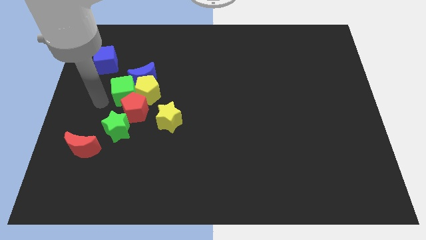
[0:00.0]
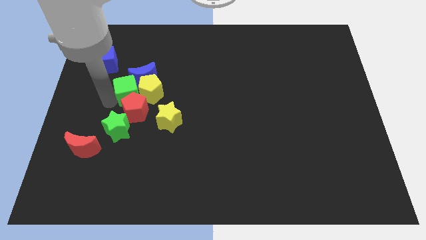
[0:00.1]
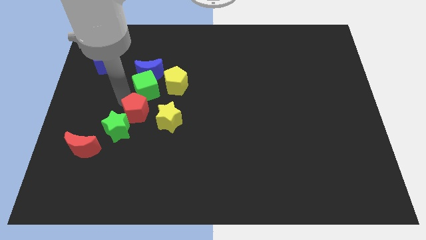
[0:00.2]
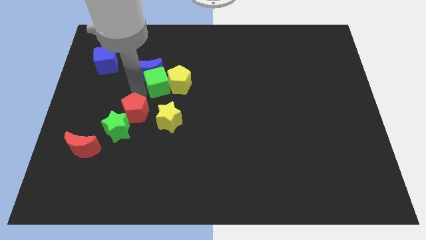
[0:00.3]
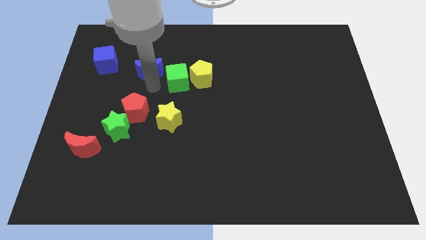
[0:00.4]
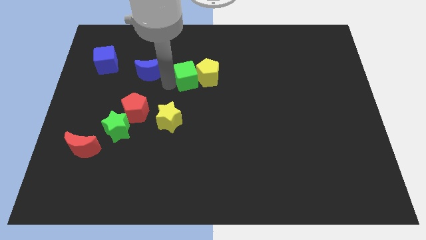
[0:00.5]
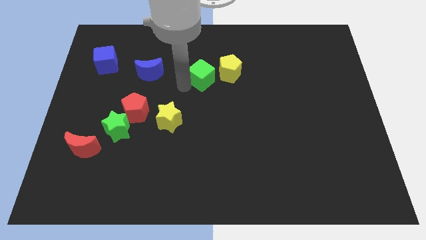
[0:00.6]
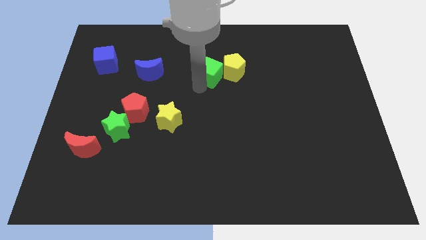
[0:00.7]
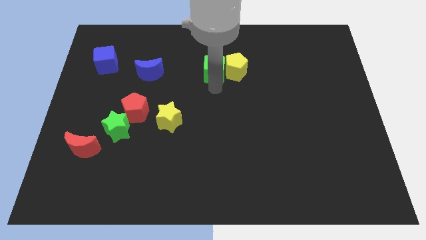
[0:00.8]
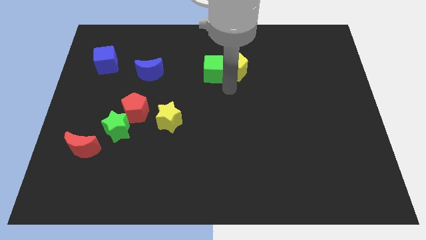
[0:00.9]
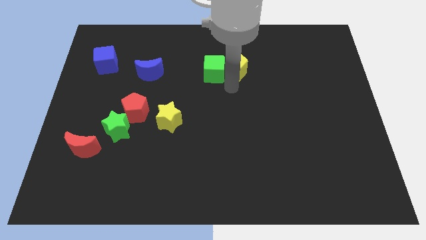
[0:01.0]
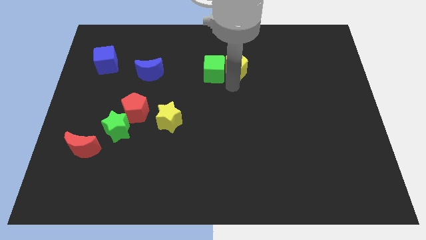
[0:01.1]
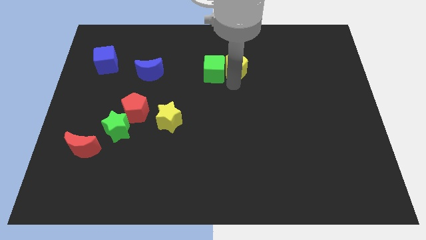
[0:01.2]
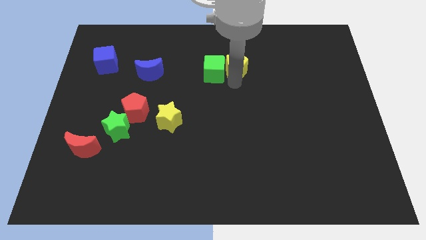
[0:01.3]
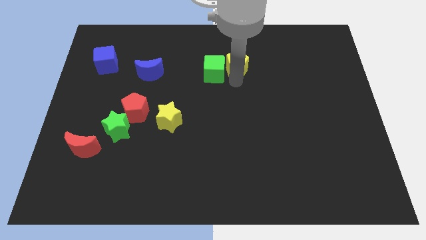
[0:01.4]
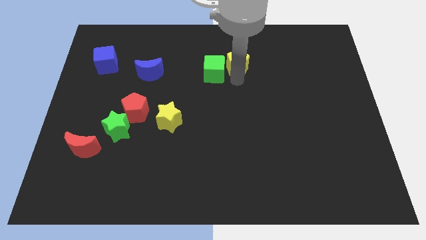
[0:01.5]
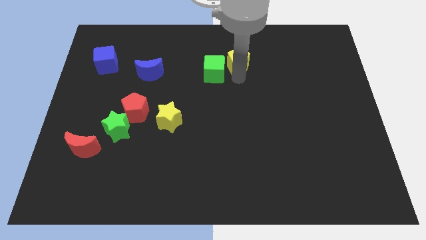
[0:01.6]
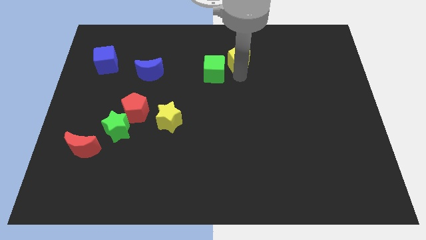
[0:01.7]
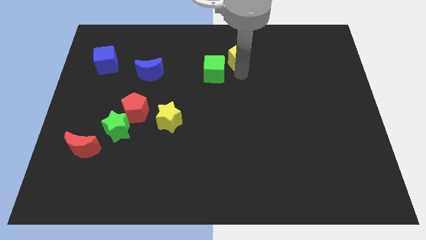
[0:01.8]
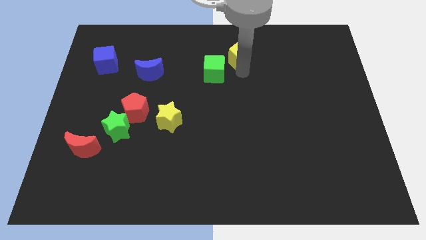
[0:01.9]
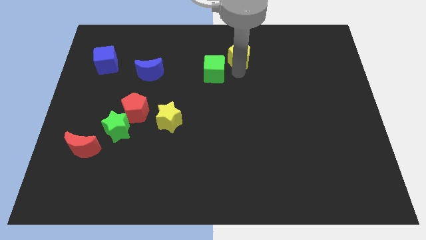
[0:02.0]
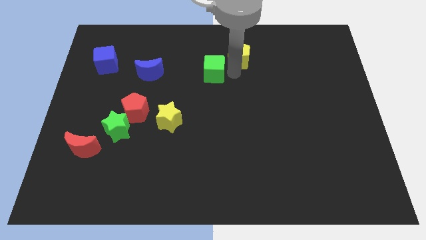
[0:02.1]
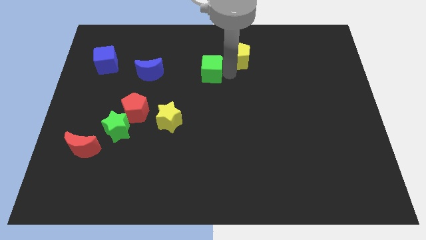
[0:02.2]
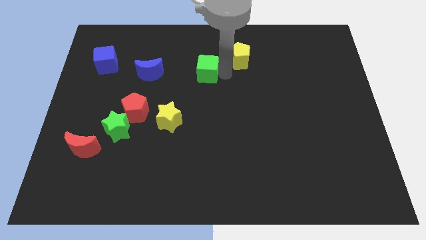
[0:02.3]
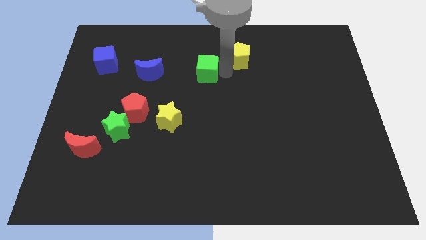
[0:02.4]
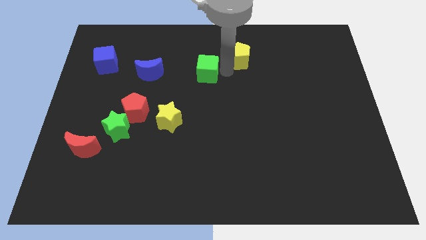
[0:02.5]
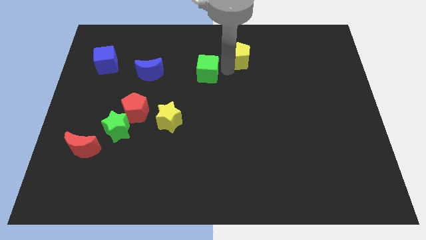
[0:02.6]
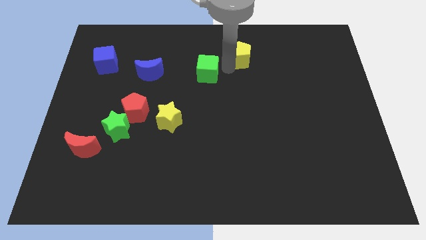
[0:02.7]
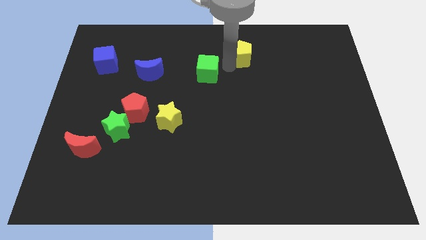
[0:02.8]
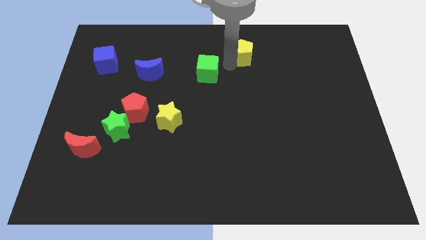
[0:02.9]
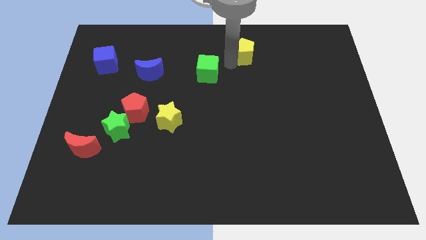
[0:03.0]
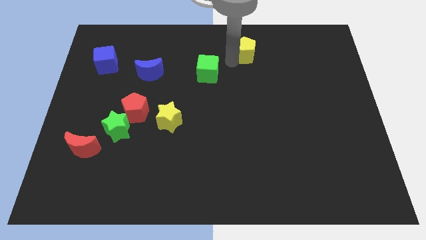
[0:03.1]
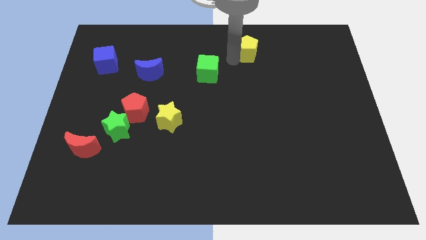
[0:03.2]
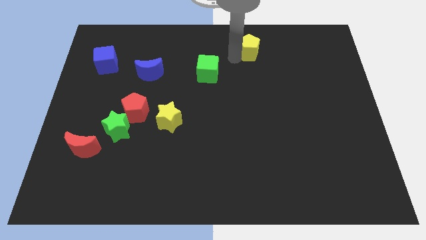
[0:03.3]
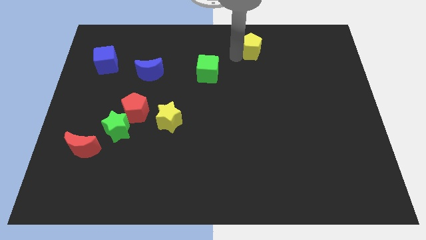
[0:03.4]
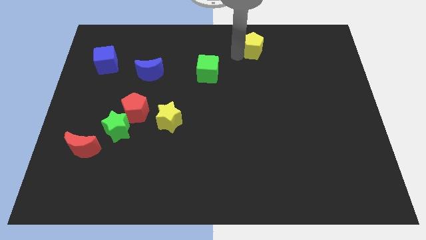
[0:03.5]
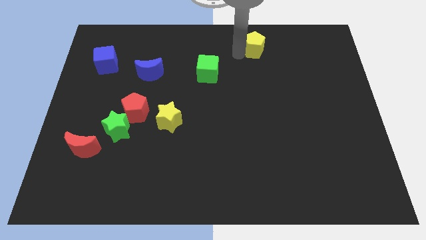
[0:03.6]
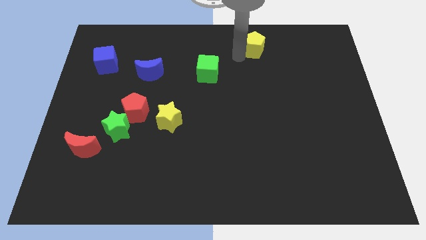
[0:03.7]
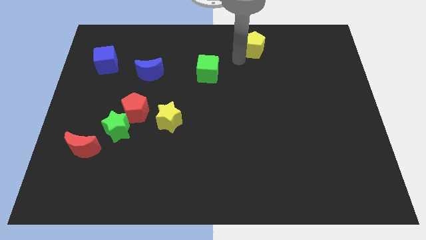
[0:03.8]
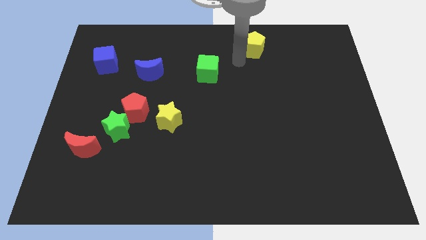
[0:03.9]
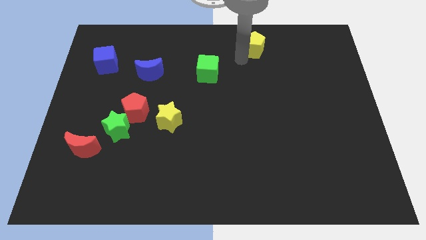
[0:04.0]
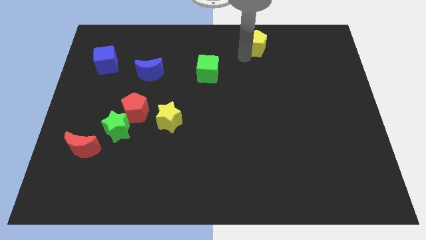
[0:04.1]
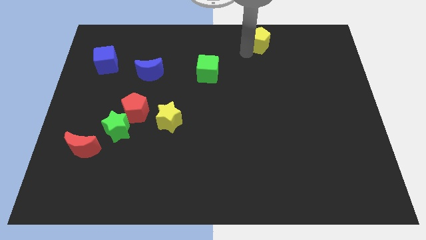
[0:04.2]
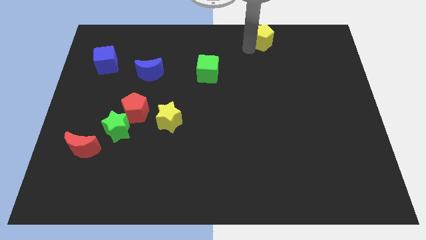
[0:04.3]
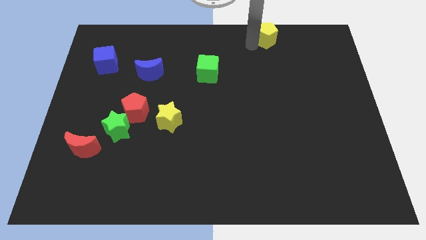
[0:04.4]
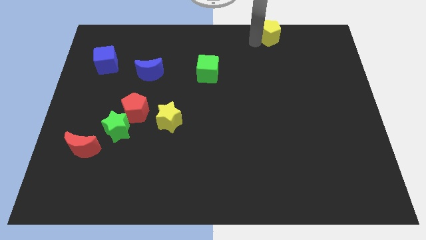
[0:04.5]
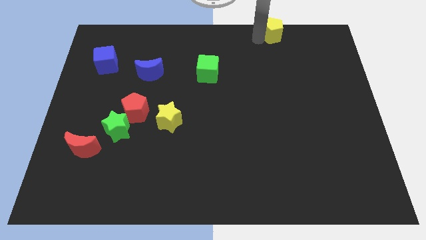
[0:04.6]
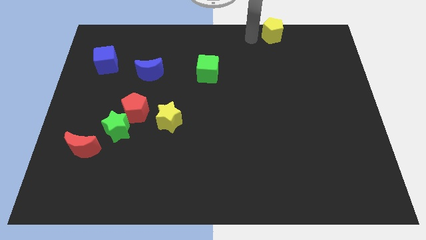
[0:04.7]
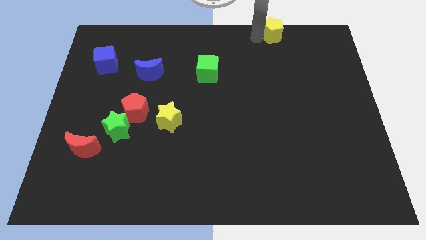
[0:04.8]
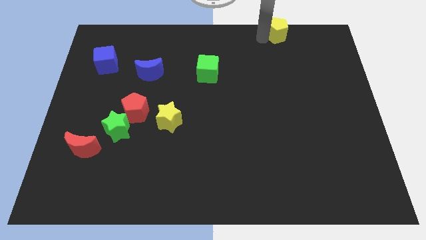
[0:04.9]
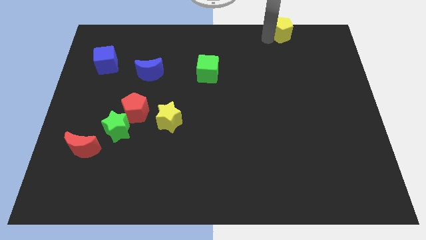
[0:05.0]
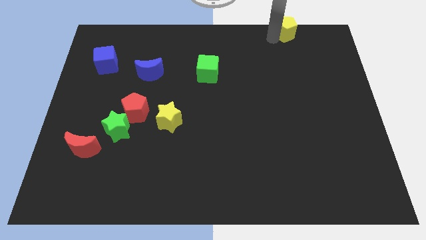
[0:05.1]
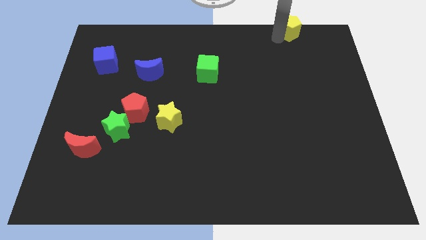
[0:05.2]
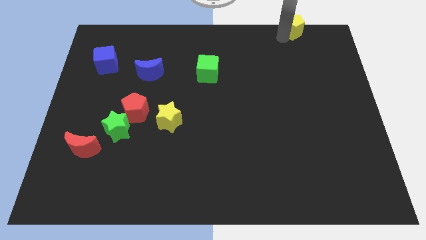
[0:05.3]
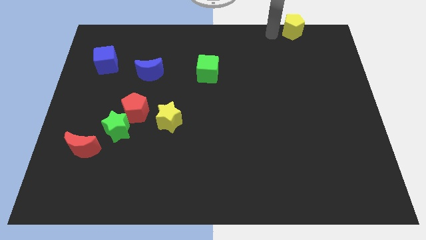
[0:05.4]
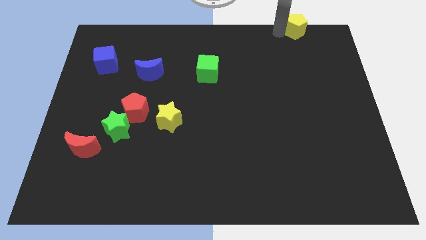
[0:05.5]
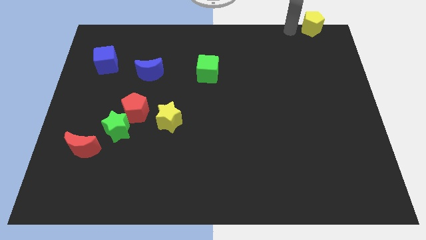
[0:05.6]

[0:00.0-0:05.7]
put the yellow pentagon to the top right of the board

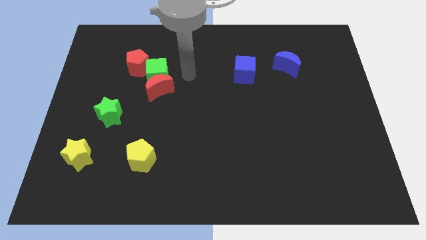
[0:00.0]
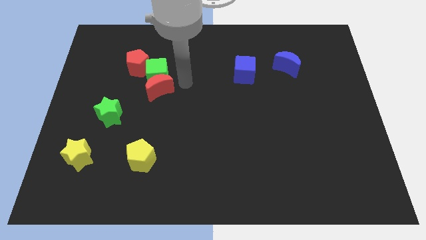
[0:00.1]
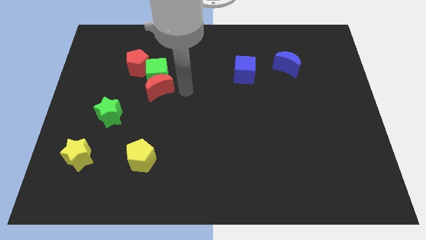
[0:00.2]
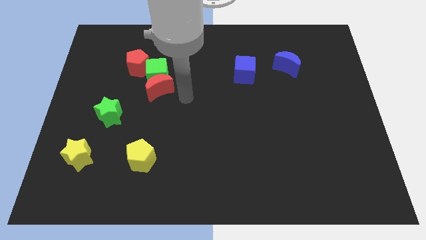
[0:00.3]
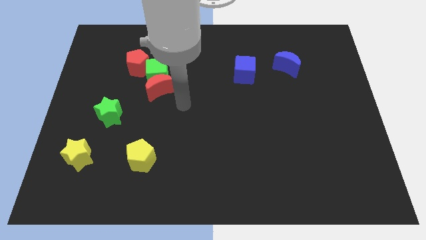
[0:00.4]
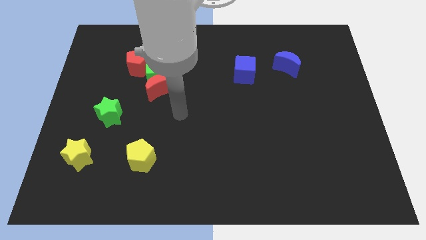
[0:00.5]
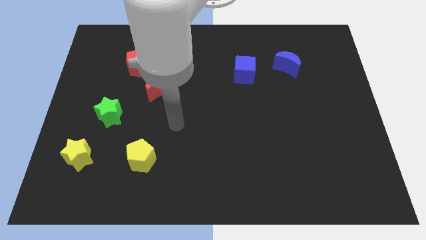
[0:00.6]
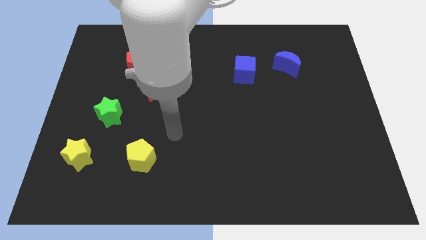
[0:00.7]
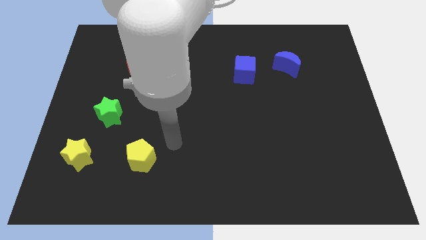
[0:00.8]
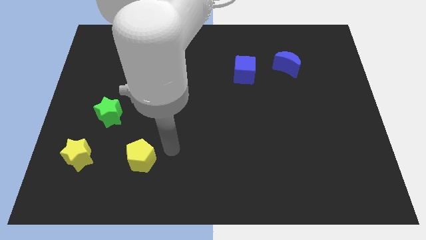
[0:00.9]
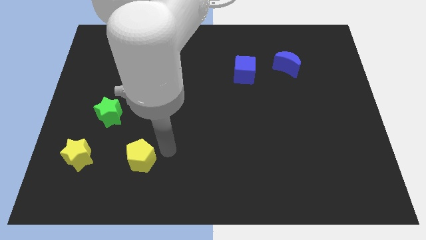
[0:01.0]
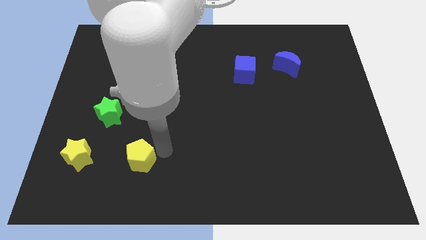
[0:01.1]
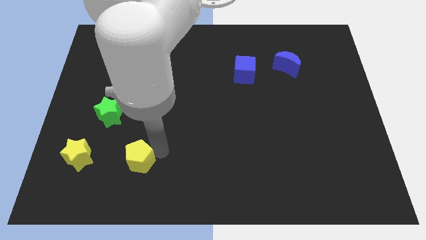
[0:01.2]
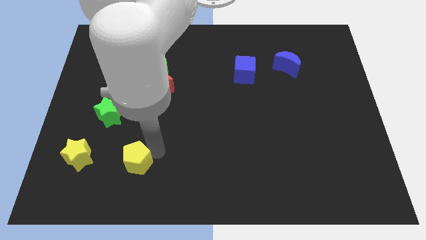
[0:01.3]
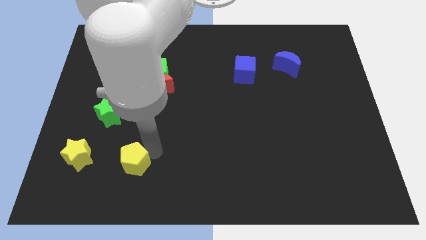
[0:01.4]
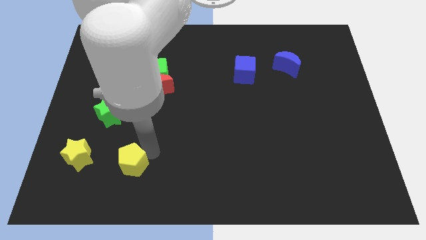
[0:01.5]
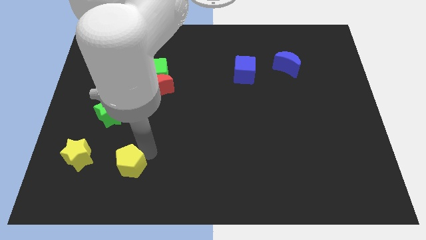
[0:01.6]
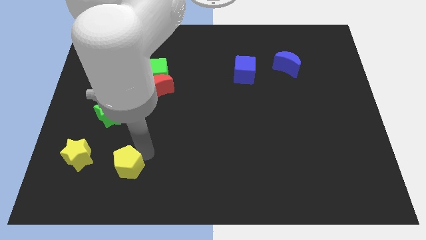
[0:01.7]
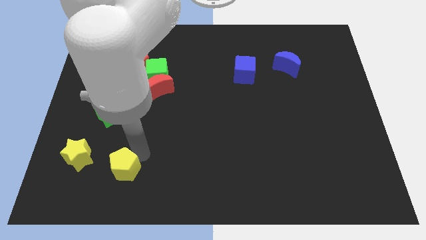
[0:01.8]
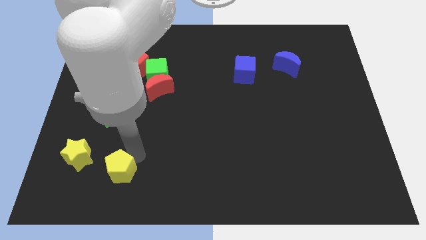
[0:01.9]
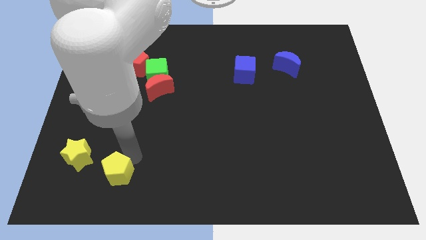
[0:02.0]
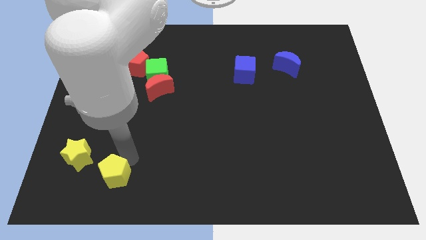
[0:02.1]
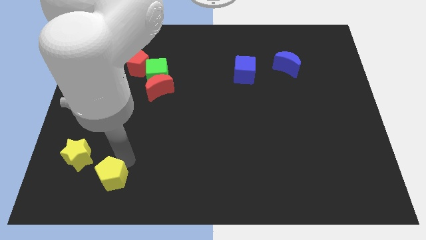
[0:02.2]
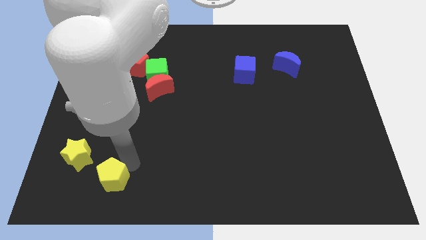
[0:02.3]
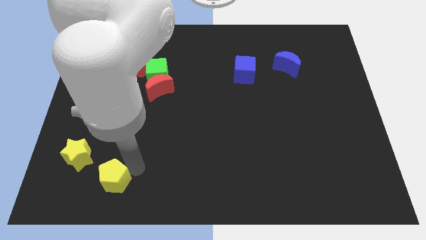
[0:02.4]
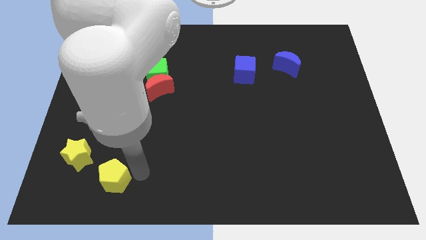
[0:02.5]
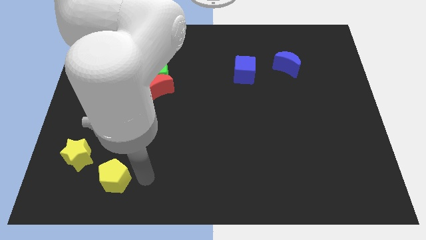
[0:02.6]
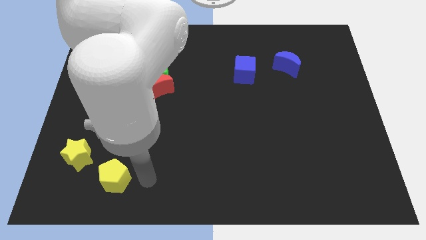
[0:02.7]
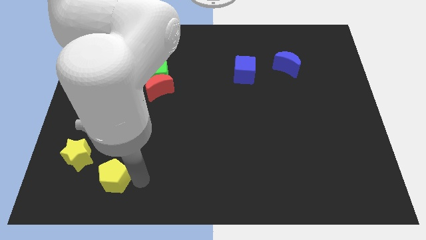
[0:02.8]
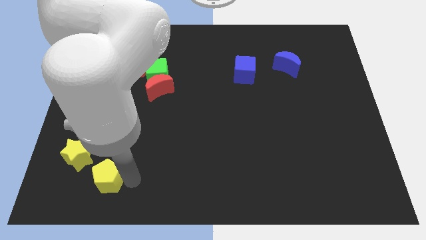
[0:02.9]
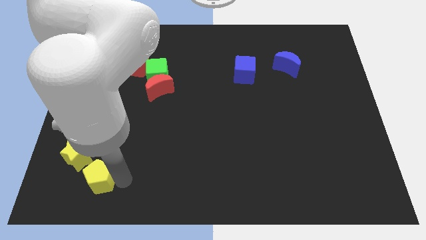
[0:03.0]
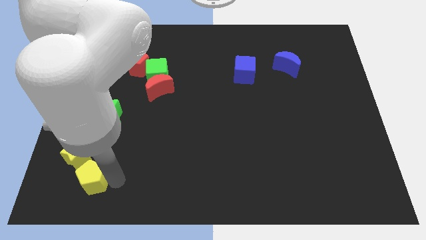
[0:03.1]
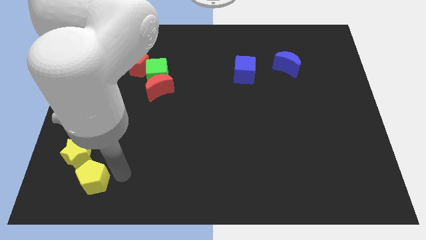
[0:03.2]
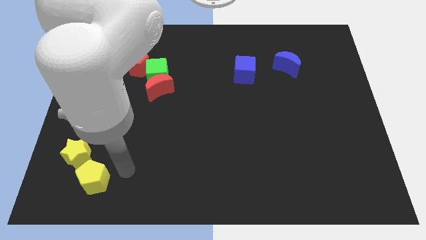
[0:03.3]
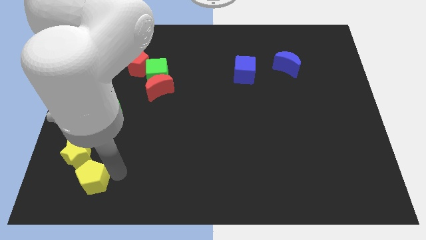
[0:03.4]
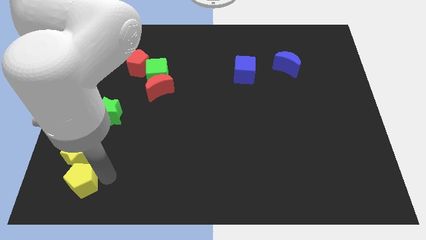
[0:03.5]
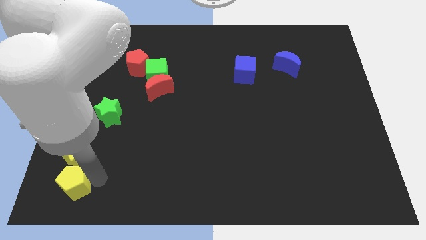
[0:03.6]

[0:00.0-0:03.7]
put the yellow pentagon to the bottom left
